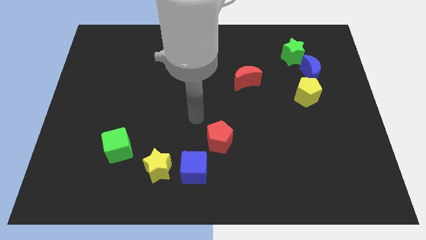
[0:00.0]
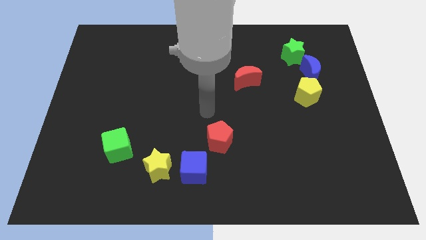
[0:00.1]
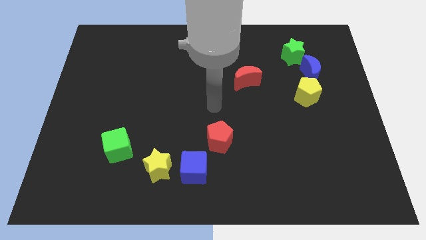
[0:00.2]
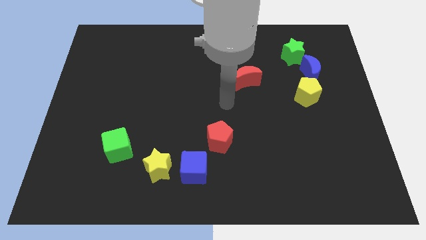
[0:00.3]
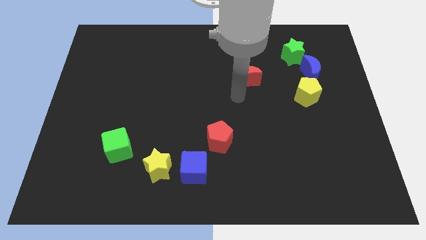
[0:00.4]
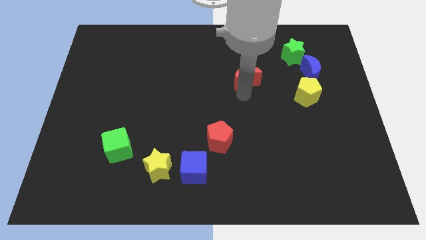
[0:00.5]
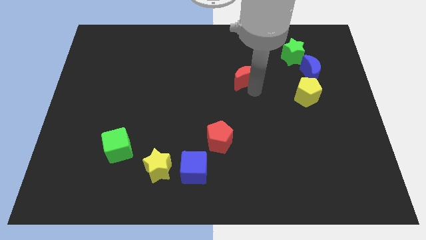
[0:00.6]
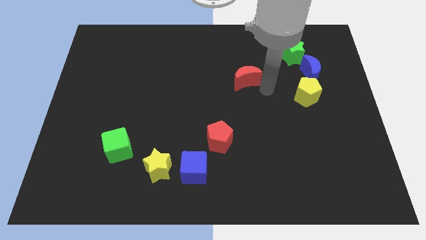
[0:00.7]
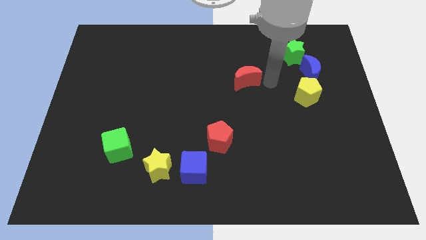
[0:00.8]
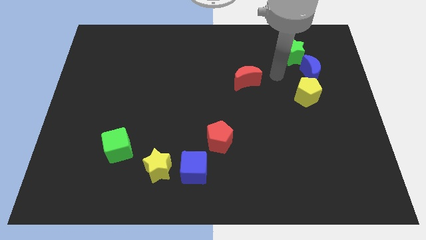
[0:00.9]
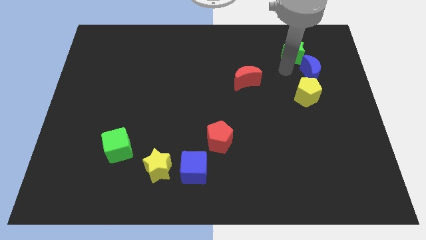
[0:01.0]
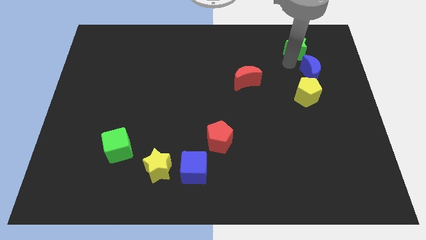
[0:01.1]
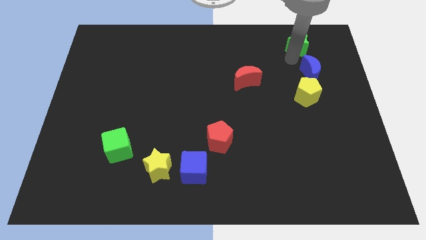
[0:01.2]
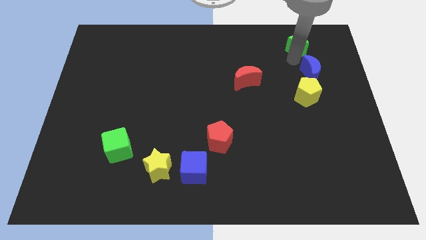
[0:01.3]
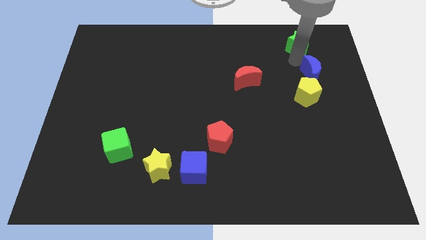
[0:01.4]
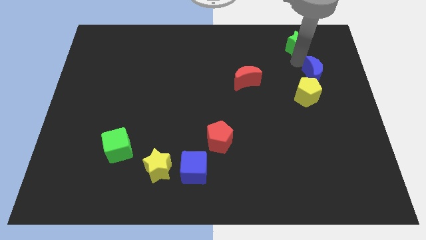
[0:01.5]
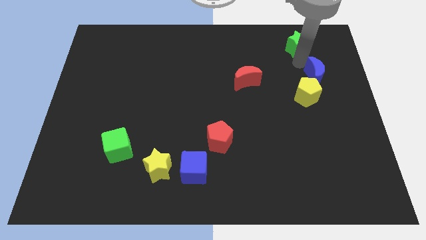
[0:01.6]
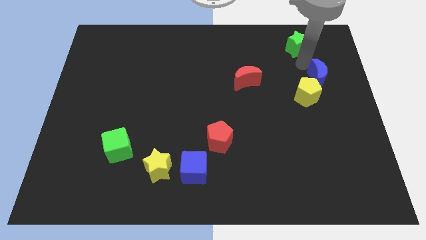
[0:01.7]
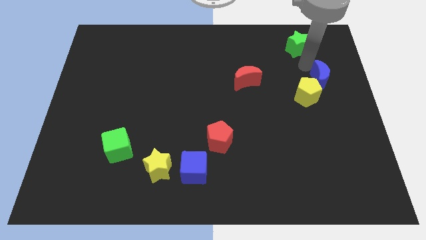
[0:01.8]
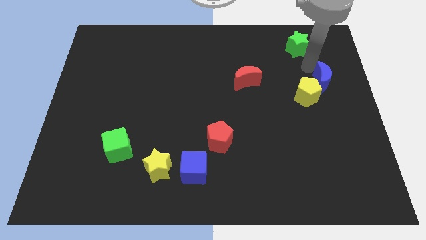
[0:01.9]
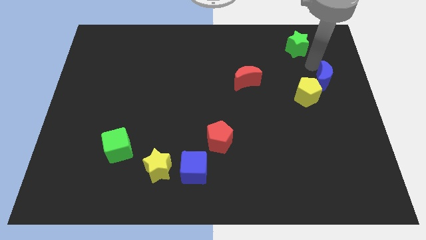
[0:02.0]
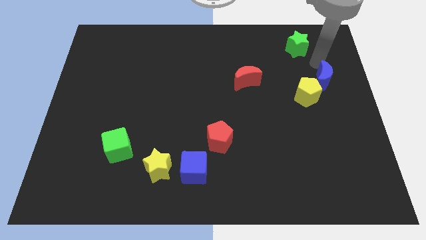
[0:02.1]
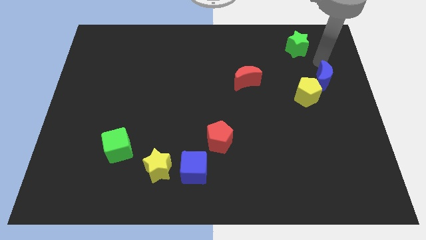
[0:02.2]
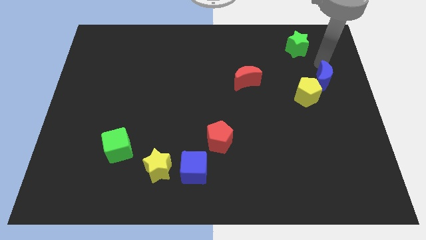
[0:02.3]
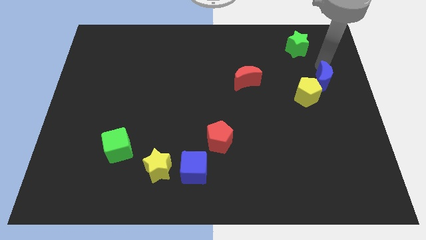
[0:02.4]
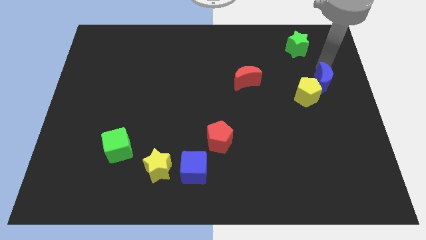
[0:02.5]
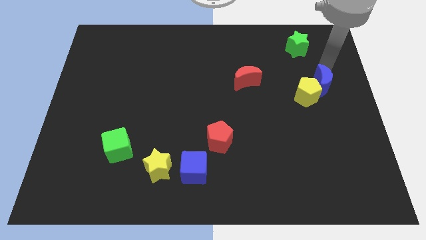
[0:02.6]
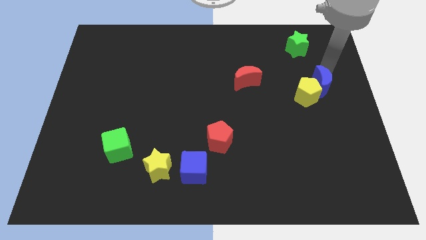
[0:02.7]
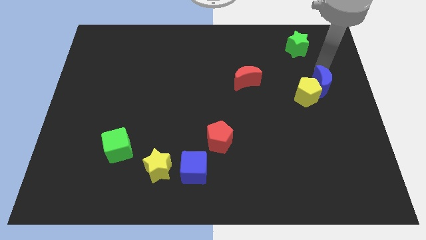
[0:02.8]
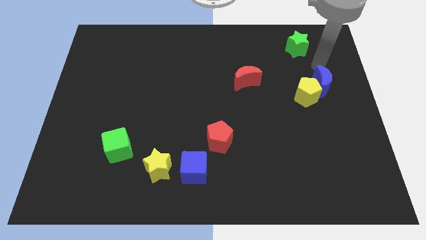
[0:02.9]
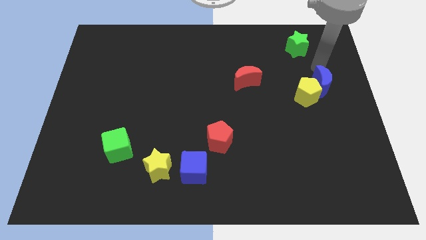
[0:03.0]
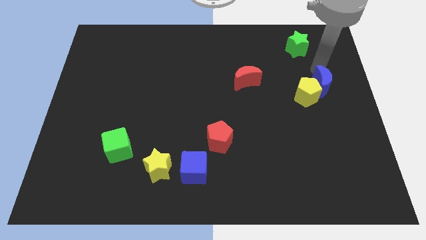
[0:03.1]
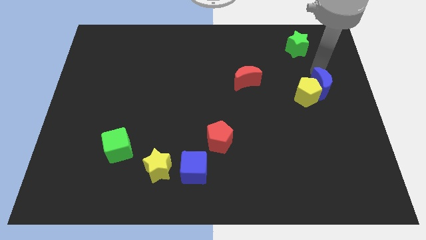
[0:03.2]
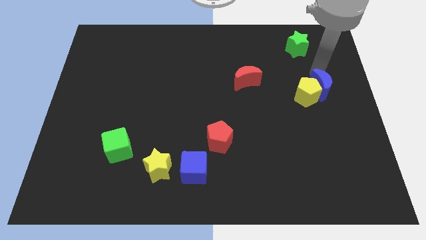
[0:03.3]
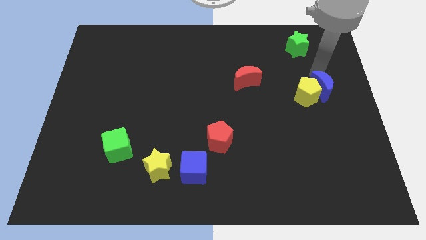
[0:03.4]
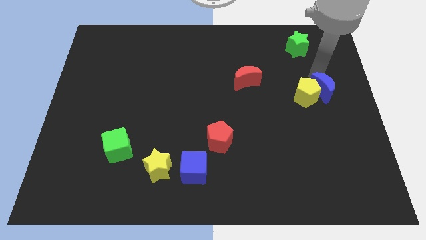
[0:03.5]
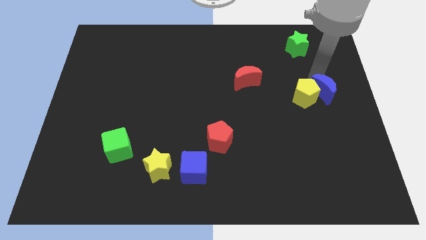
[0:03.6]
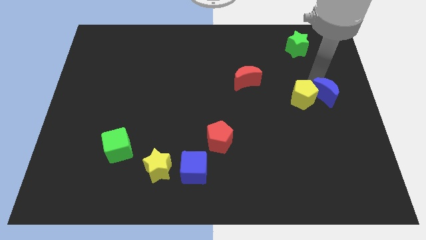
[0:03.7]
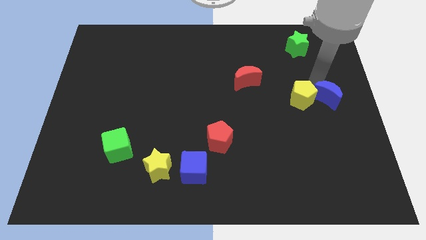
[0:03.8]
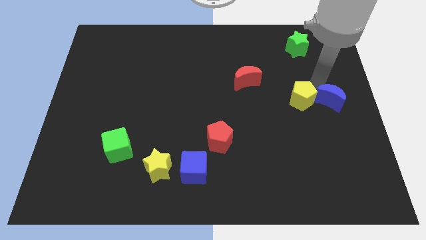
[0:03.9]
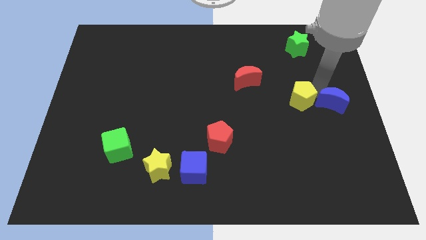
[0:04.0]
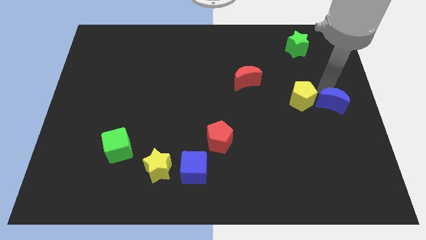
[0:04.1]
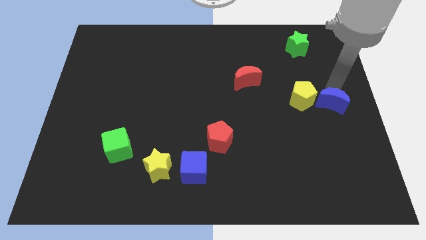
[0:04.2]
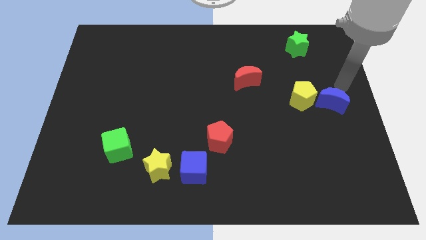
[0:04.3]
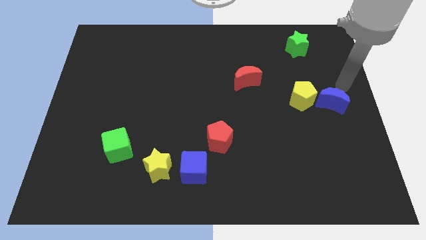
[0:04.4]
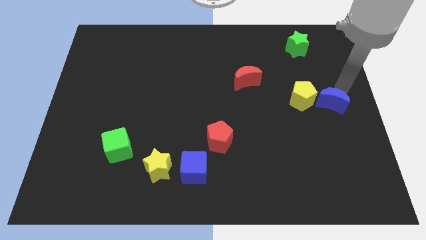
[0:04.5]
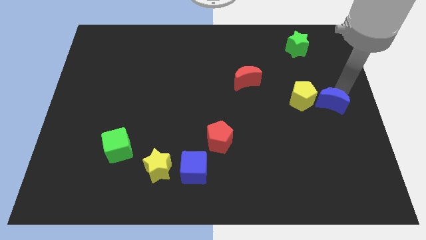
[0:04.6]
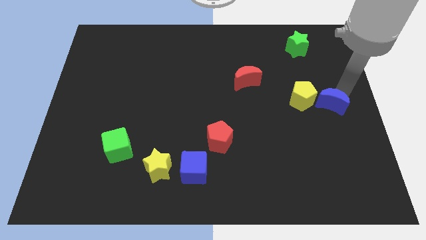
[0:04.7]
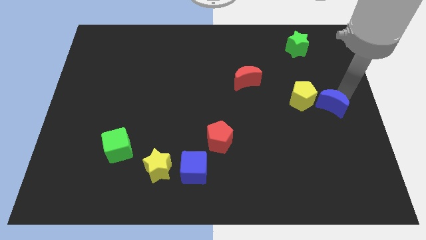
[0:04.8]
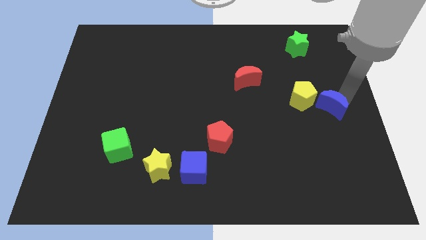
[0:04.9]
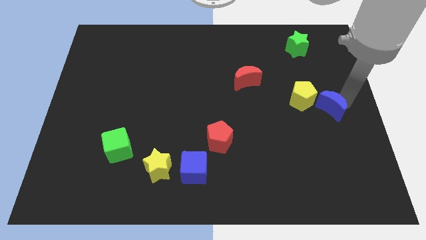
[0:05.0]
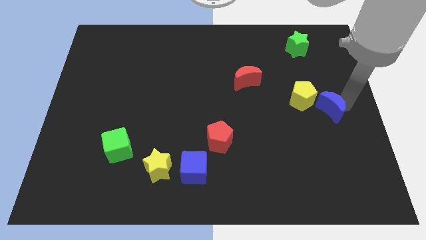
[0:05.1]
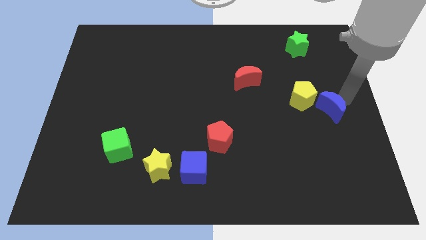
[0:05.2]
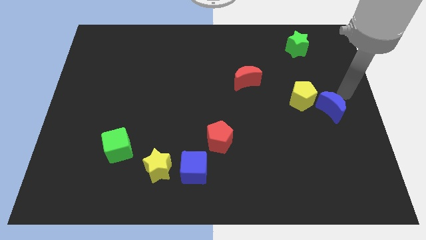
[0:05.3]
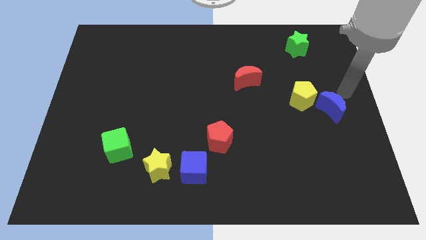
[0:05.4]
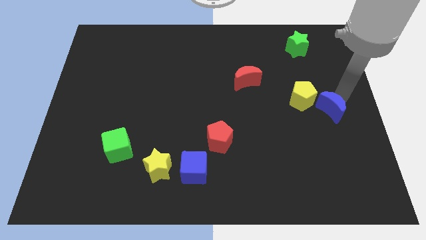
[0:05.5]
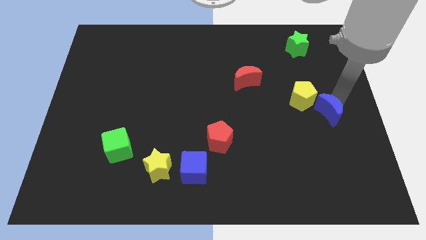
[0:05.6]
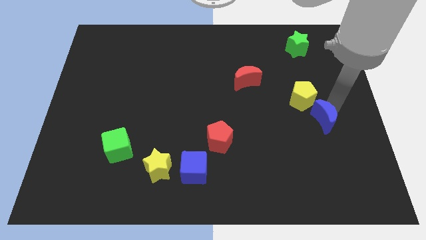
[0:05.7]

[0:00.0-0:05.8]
slide the blue moon to the bottom of the yellow pentagon

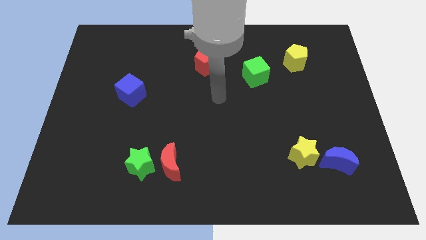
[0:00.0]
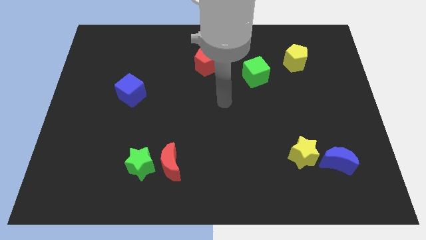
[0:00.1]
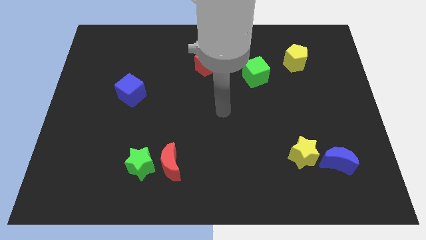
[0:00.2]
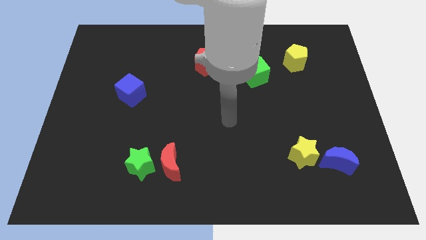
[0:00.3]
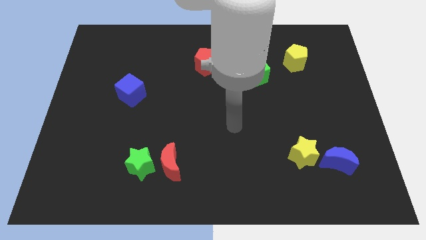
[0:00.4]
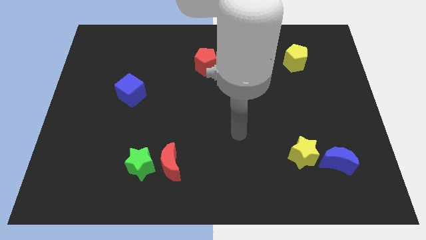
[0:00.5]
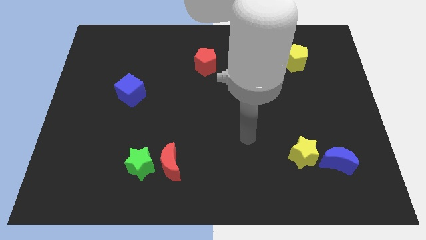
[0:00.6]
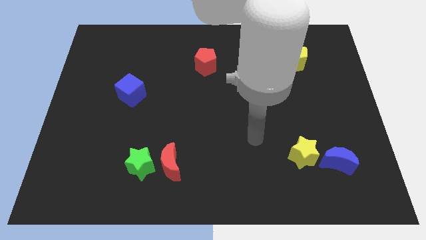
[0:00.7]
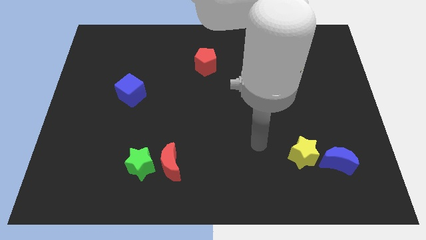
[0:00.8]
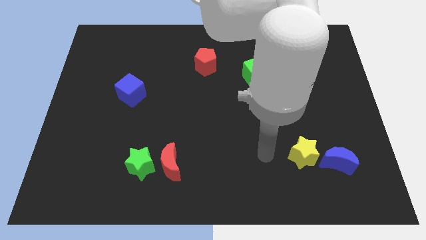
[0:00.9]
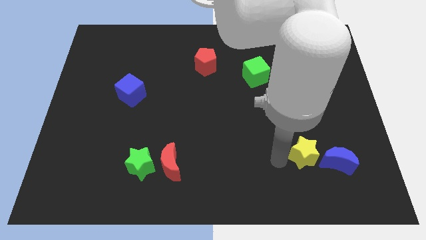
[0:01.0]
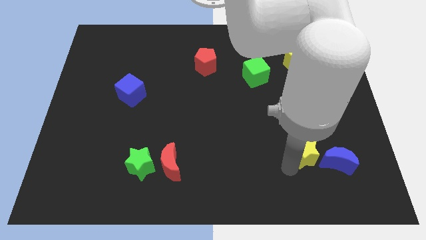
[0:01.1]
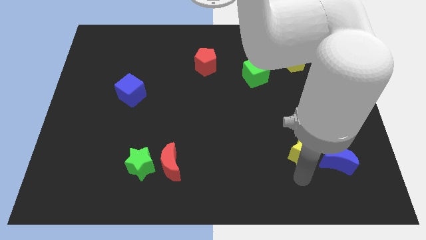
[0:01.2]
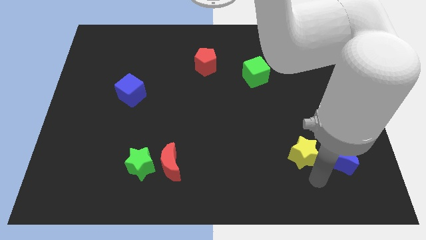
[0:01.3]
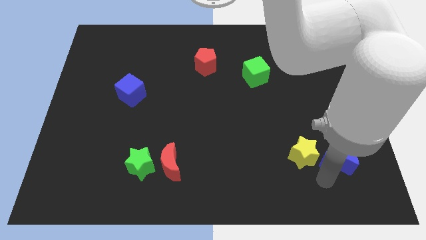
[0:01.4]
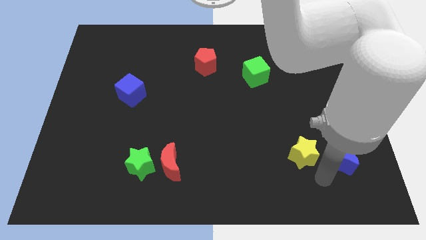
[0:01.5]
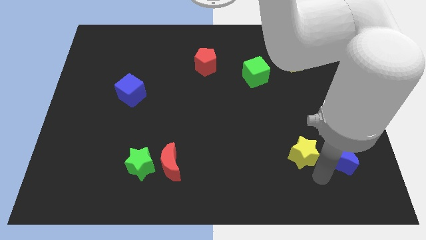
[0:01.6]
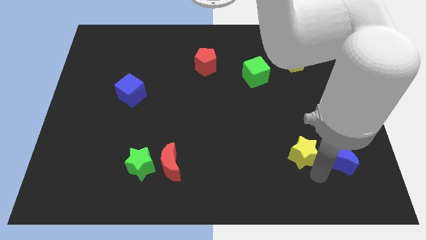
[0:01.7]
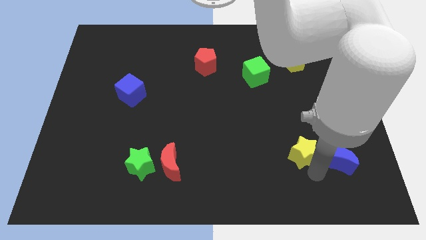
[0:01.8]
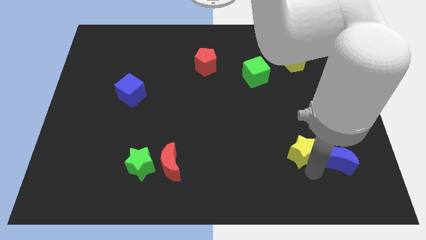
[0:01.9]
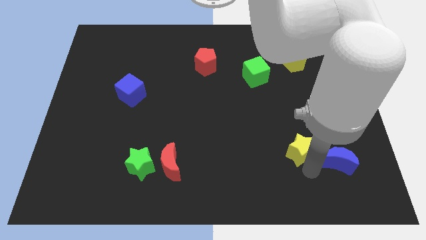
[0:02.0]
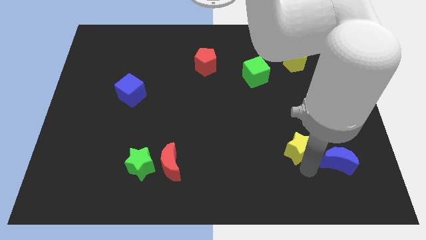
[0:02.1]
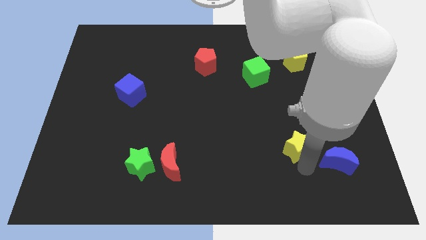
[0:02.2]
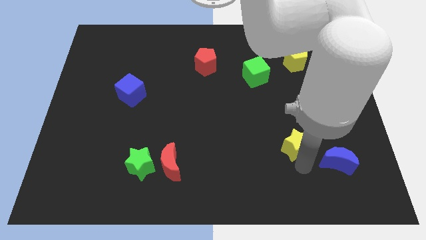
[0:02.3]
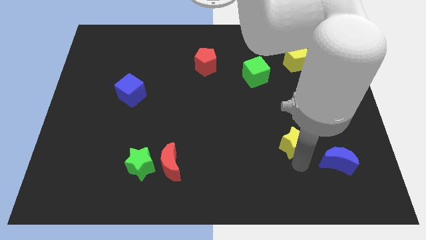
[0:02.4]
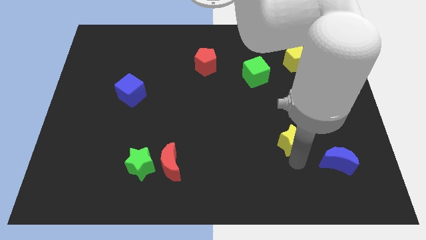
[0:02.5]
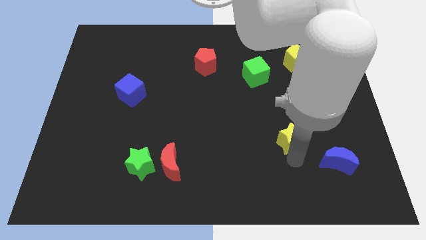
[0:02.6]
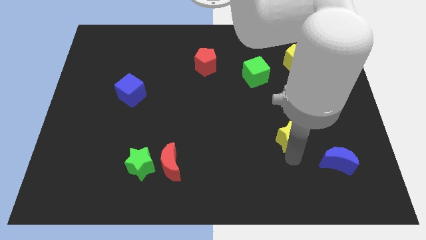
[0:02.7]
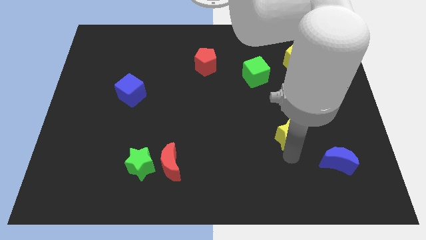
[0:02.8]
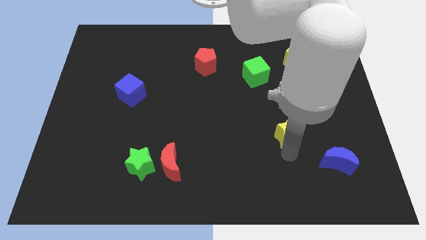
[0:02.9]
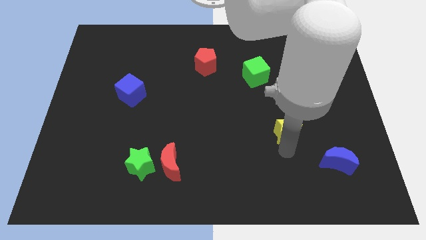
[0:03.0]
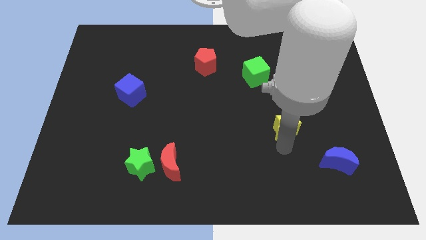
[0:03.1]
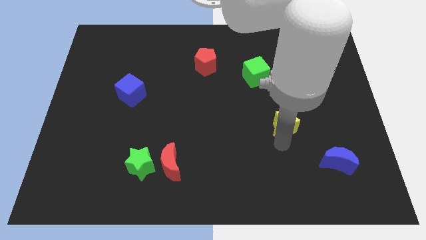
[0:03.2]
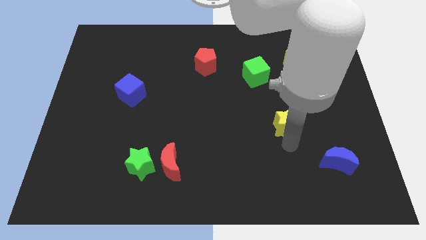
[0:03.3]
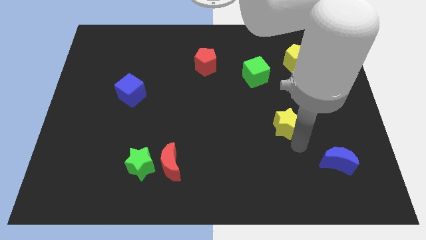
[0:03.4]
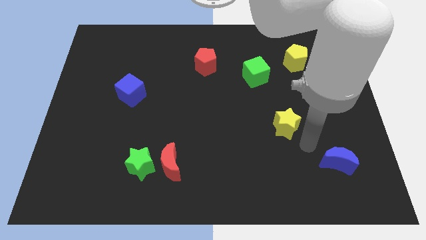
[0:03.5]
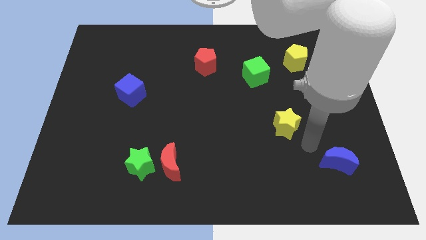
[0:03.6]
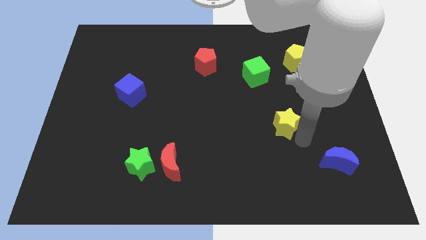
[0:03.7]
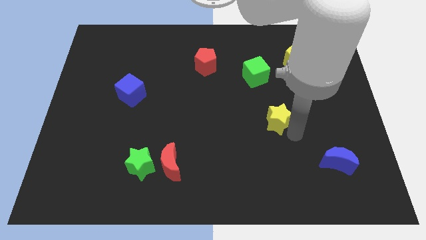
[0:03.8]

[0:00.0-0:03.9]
put the yellow star below the green cube
